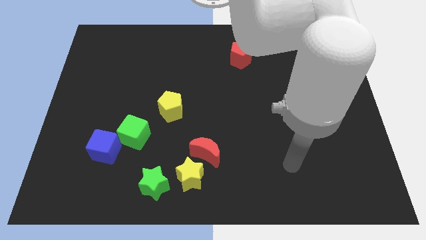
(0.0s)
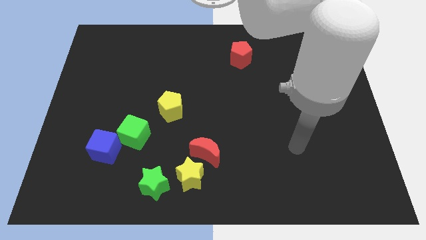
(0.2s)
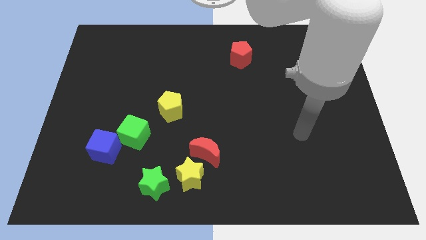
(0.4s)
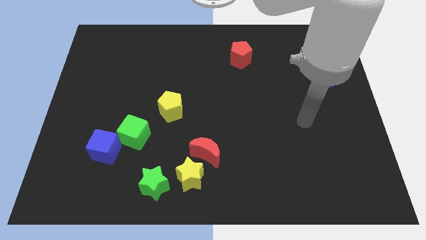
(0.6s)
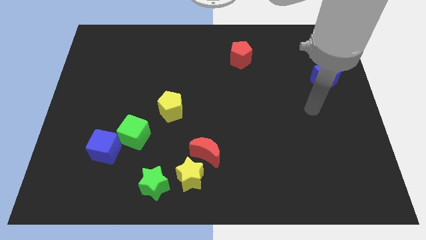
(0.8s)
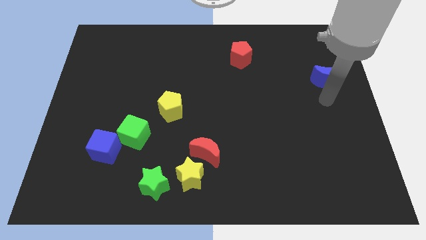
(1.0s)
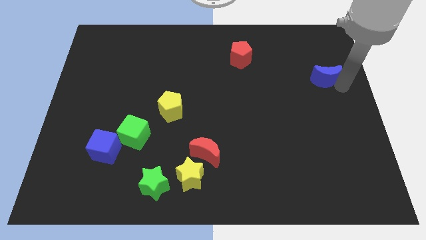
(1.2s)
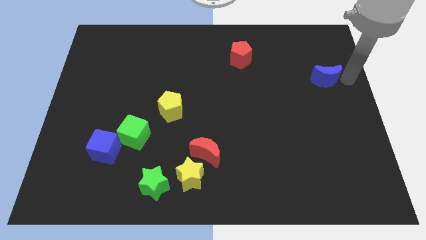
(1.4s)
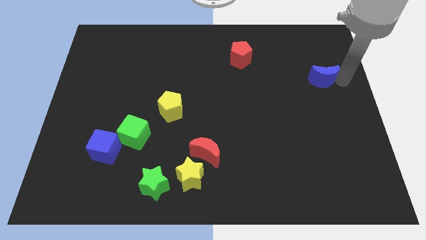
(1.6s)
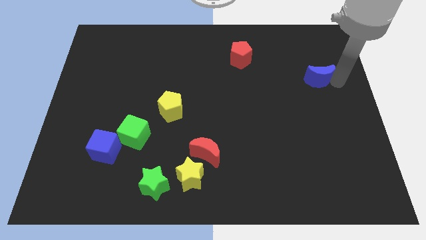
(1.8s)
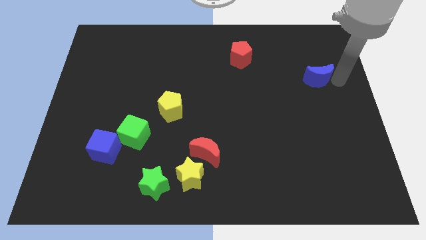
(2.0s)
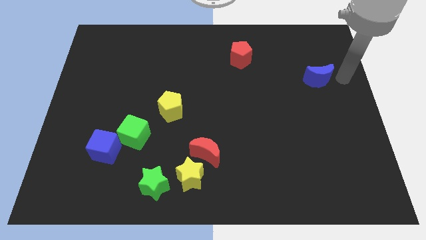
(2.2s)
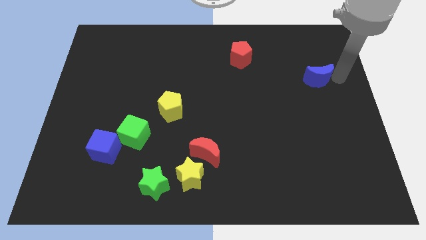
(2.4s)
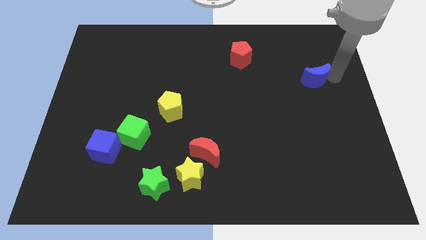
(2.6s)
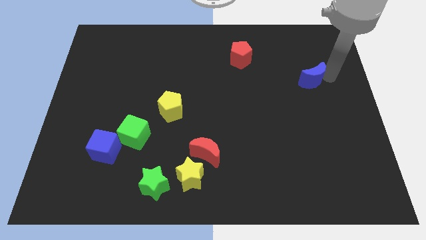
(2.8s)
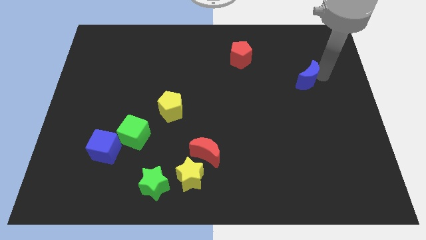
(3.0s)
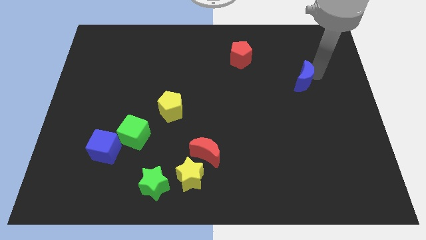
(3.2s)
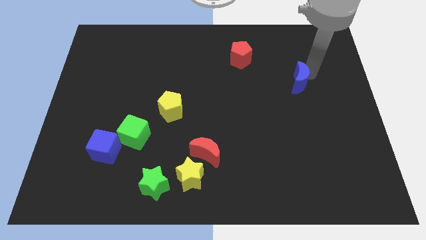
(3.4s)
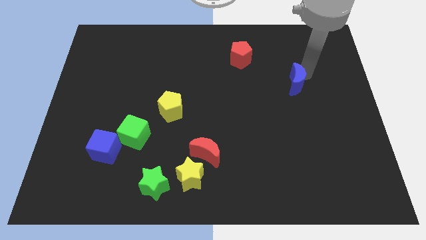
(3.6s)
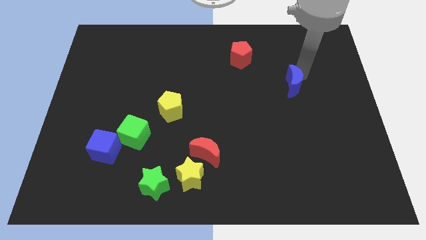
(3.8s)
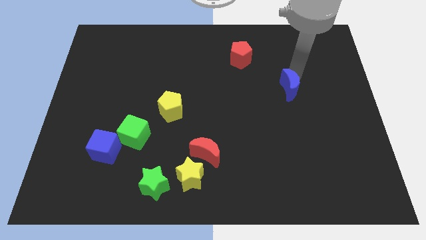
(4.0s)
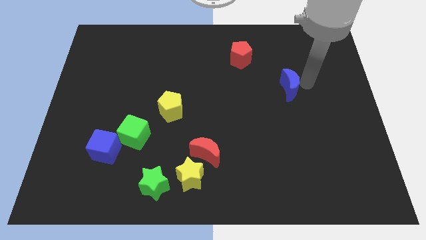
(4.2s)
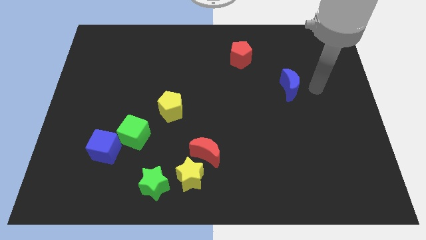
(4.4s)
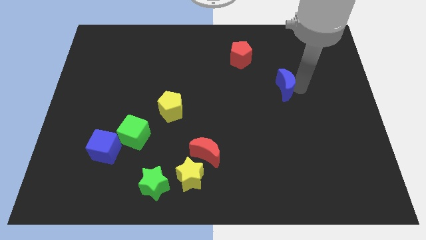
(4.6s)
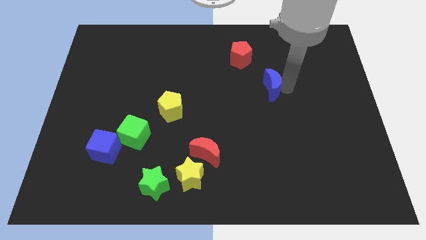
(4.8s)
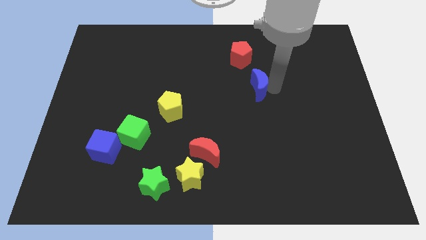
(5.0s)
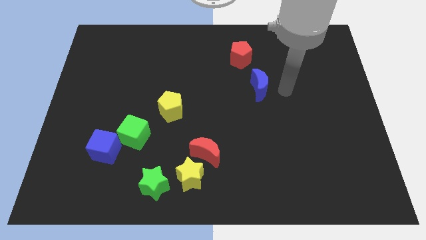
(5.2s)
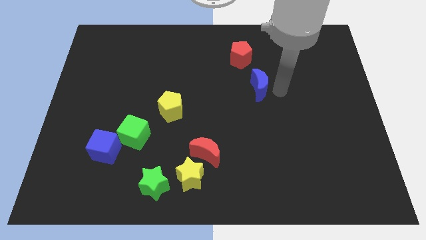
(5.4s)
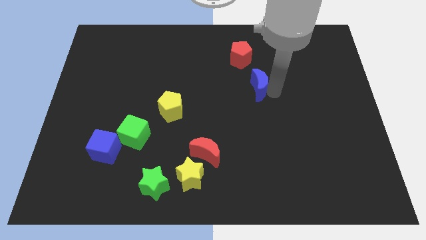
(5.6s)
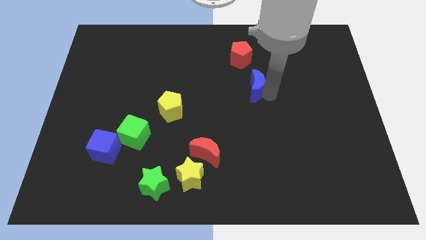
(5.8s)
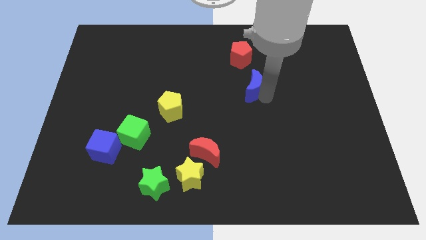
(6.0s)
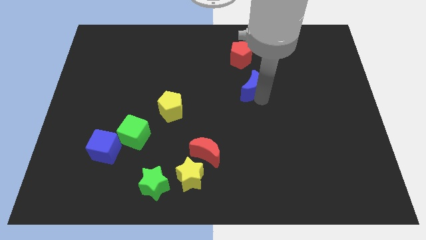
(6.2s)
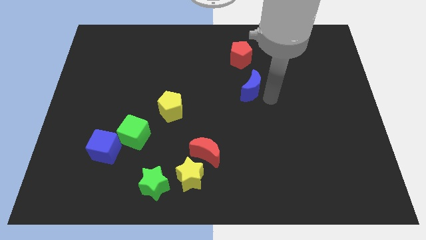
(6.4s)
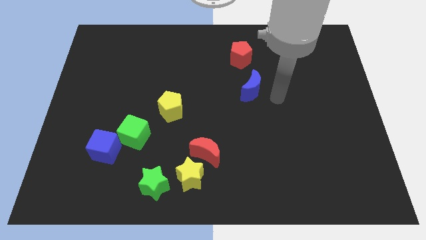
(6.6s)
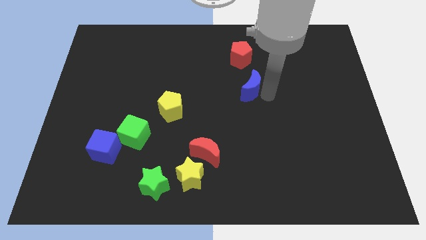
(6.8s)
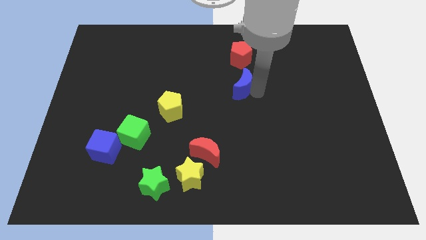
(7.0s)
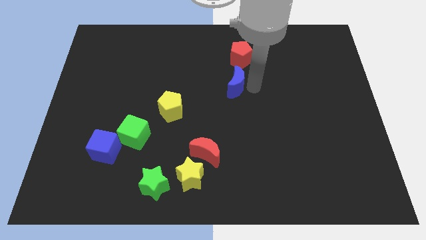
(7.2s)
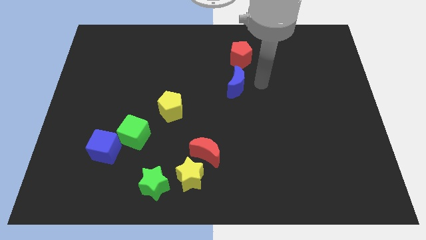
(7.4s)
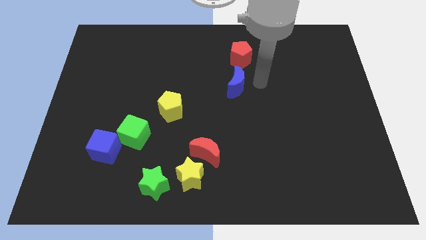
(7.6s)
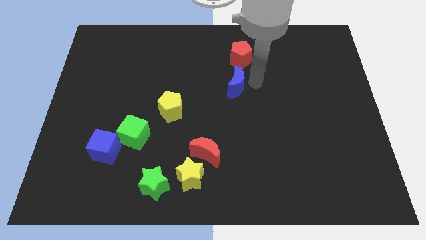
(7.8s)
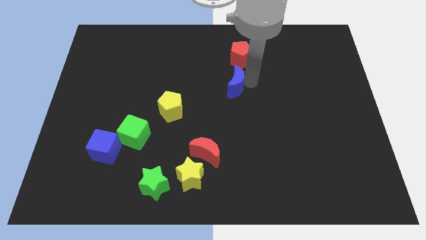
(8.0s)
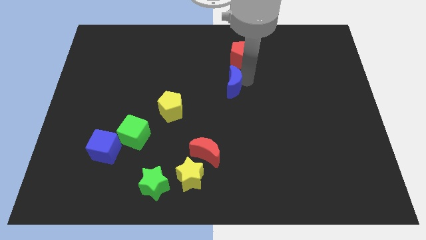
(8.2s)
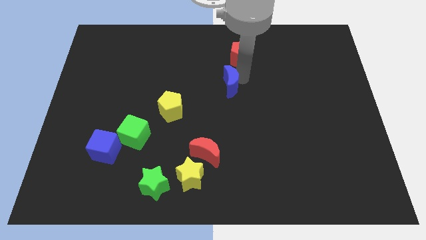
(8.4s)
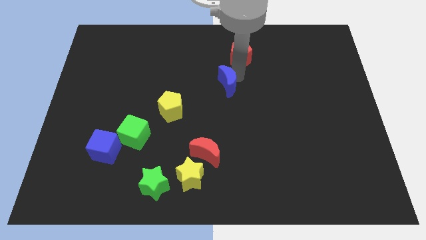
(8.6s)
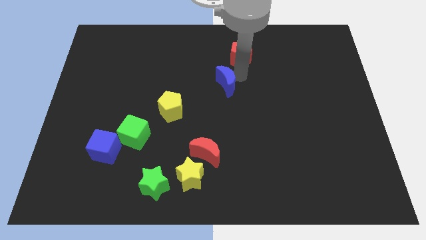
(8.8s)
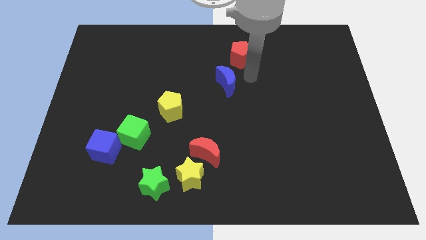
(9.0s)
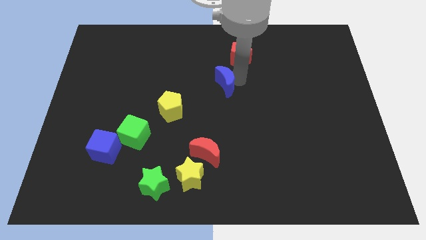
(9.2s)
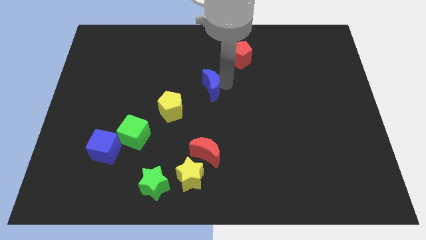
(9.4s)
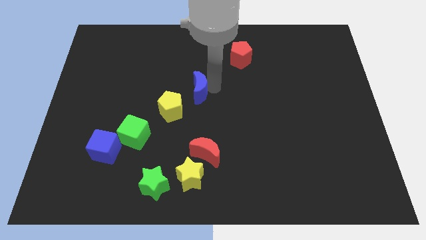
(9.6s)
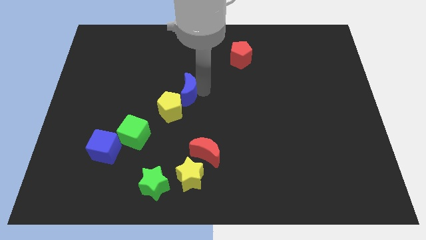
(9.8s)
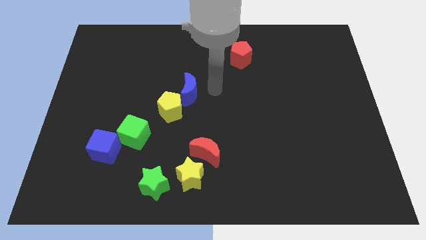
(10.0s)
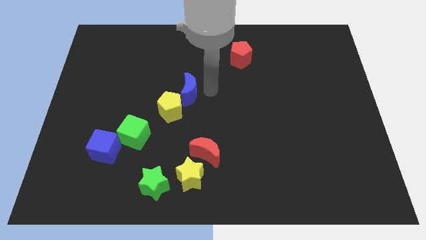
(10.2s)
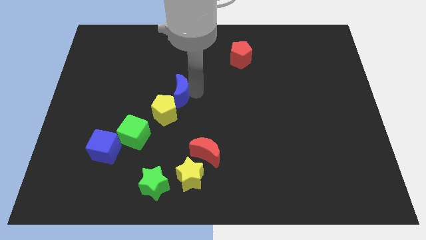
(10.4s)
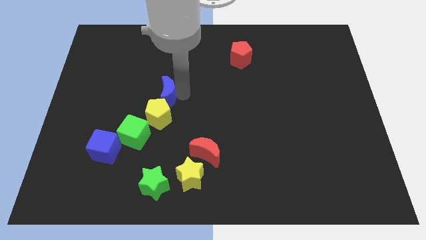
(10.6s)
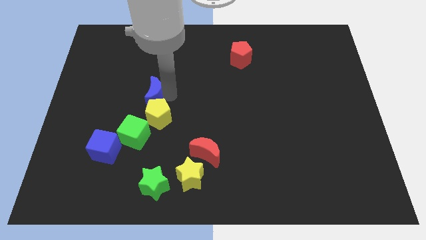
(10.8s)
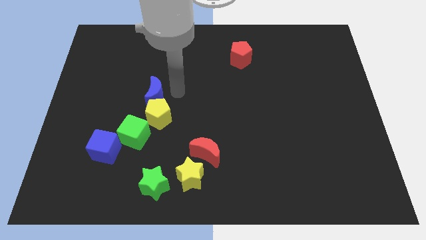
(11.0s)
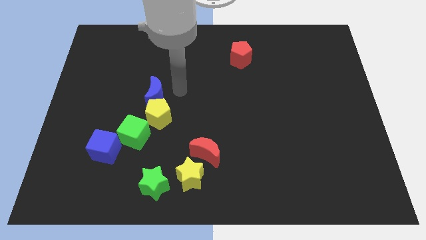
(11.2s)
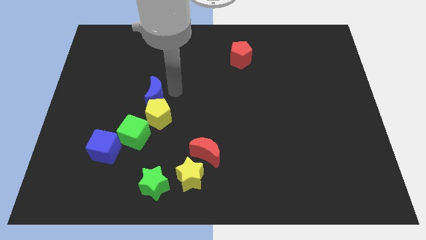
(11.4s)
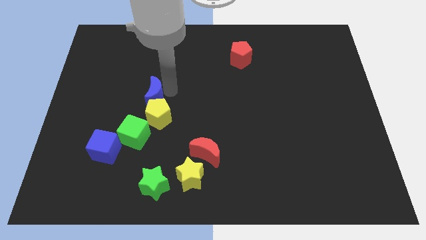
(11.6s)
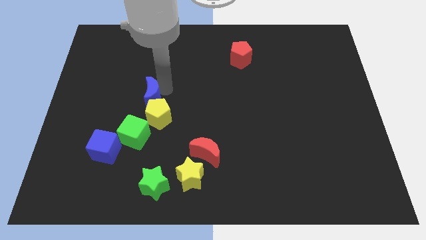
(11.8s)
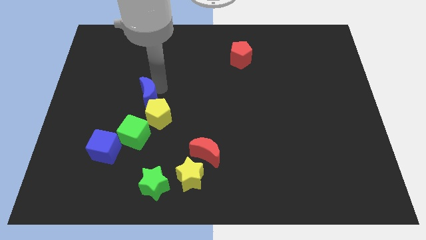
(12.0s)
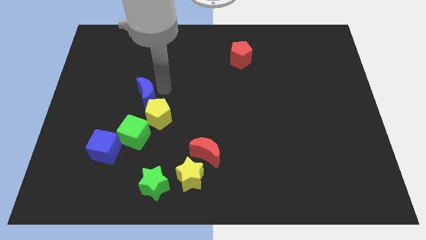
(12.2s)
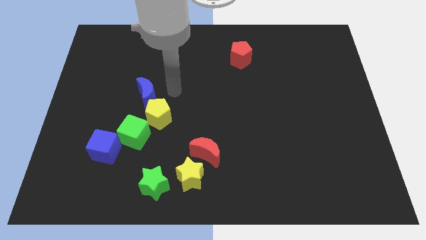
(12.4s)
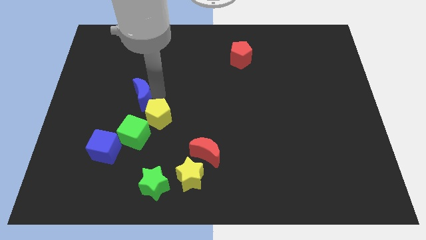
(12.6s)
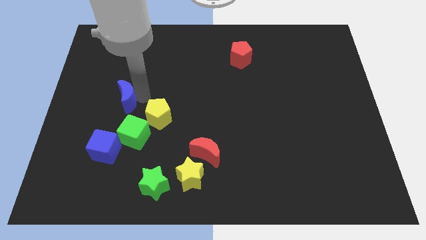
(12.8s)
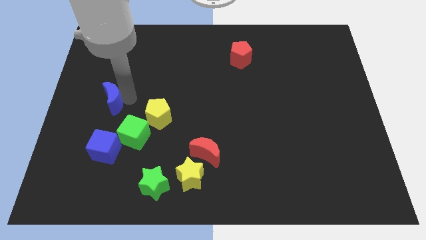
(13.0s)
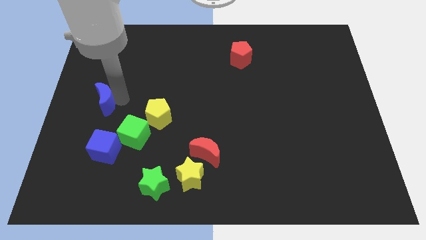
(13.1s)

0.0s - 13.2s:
slide the blue moon to the left side of the board
